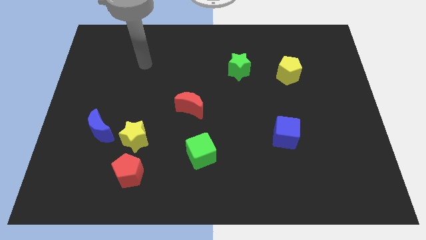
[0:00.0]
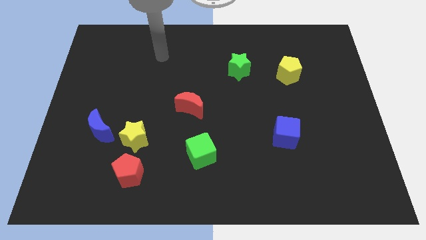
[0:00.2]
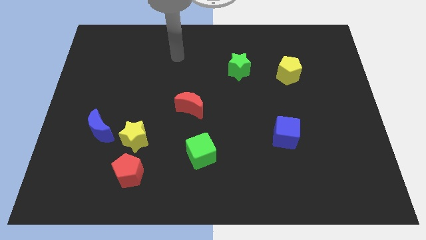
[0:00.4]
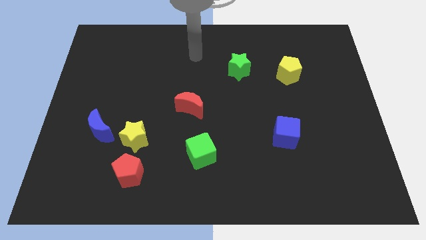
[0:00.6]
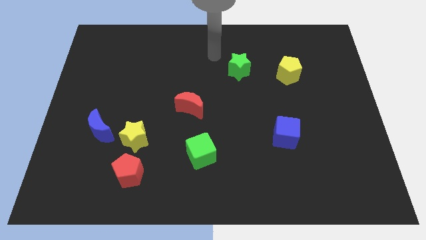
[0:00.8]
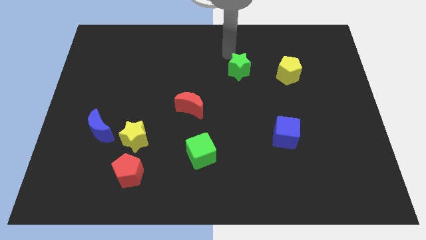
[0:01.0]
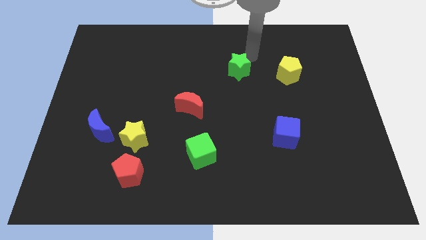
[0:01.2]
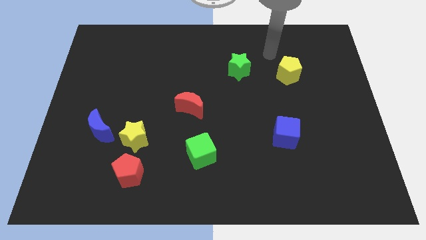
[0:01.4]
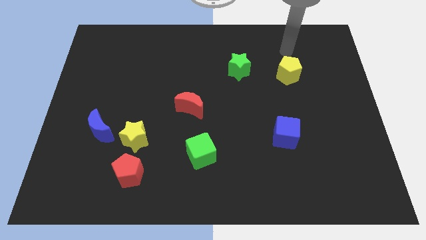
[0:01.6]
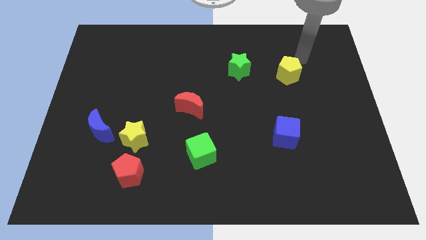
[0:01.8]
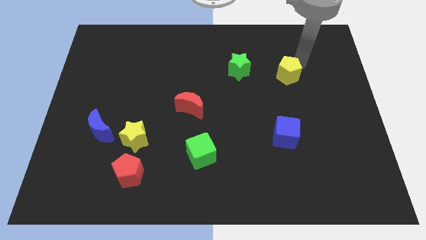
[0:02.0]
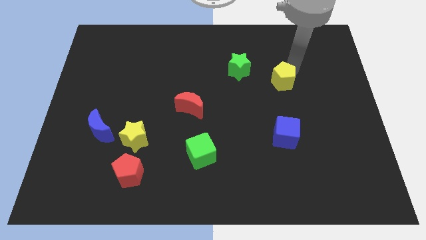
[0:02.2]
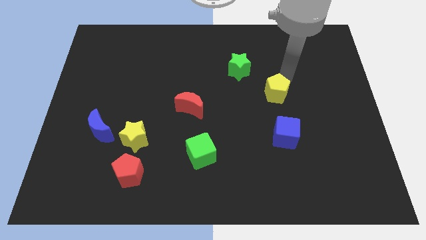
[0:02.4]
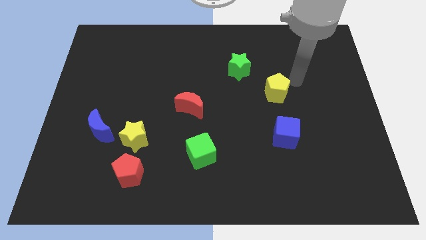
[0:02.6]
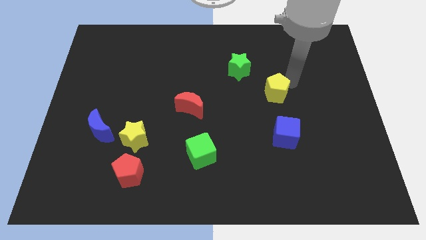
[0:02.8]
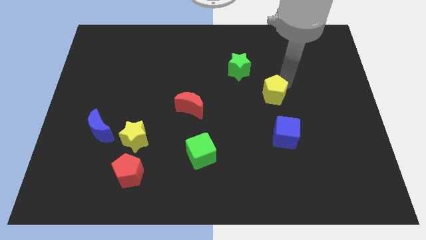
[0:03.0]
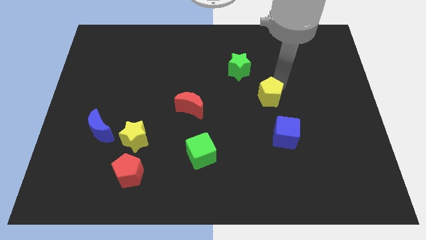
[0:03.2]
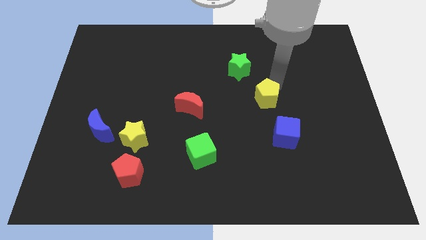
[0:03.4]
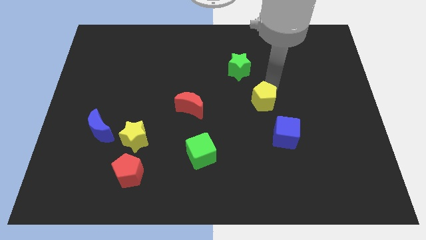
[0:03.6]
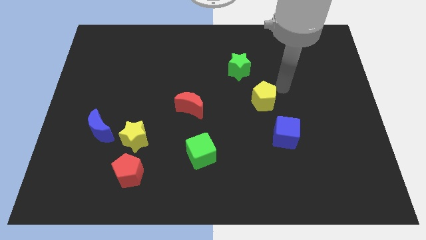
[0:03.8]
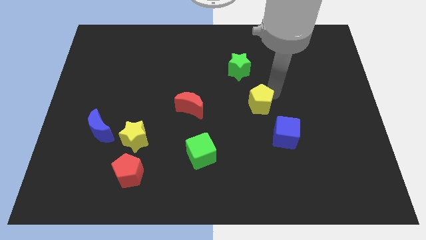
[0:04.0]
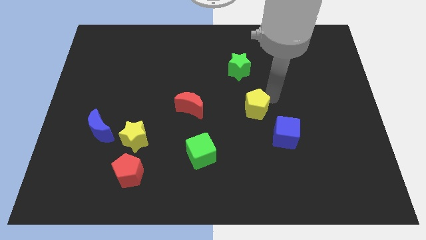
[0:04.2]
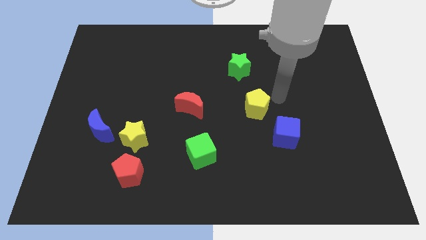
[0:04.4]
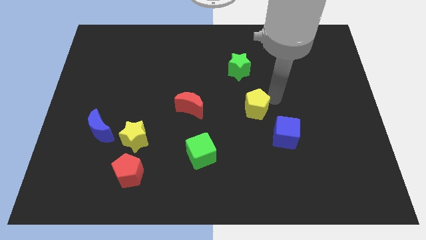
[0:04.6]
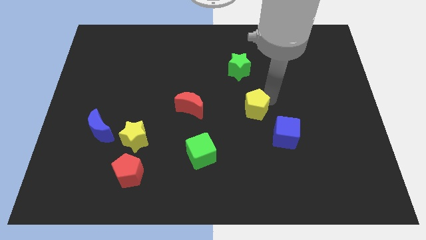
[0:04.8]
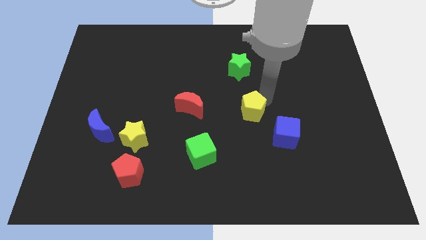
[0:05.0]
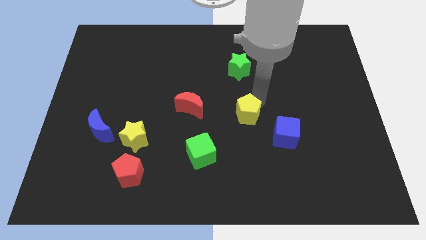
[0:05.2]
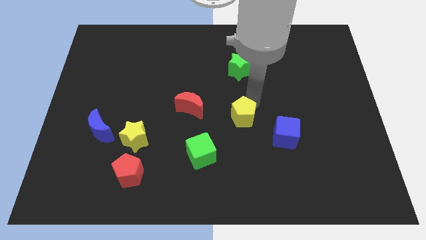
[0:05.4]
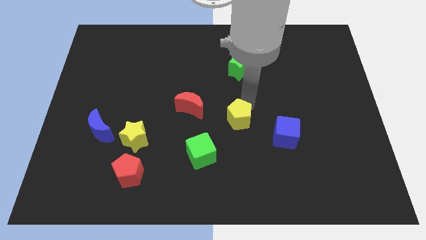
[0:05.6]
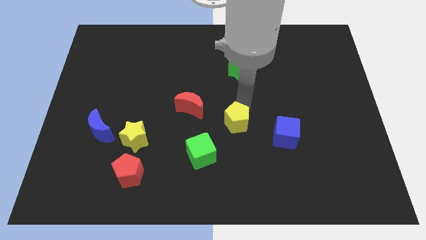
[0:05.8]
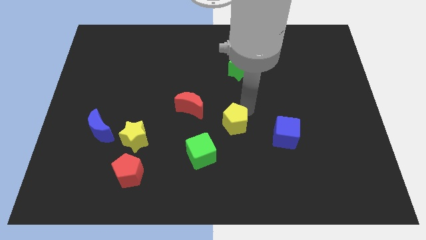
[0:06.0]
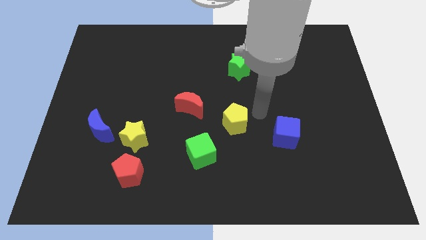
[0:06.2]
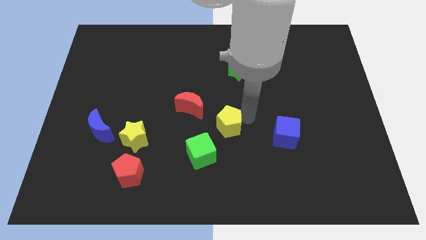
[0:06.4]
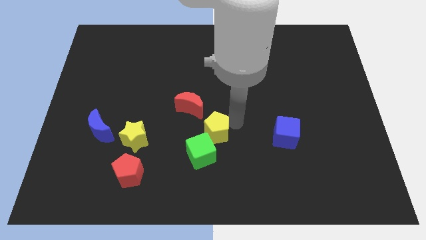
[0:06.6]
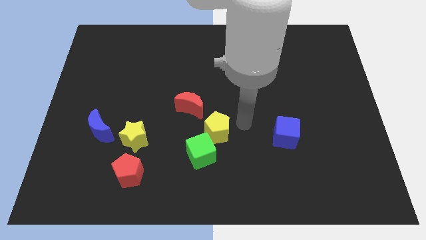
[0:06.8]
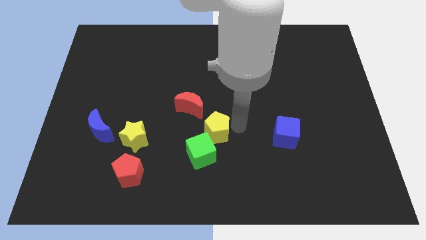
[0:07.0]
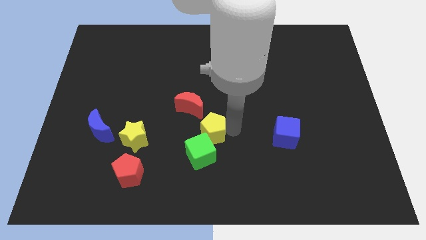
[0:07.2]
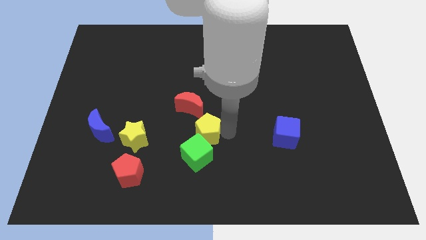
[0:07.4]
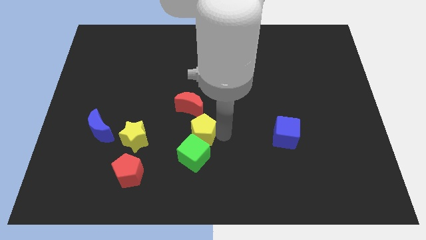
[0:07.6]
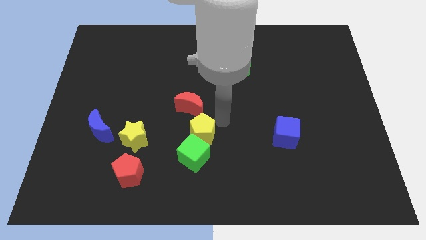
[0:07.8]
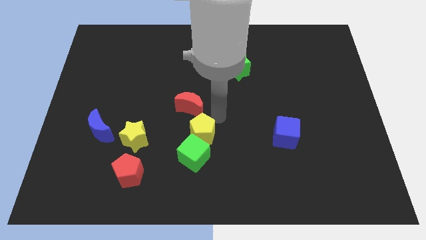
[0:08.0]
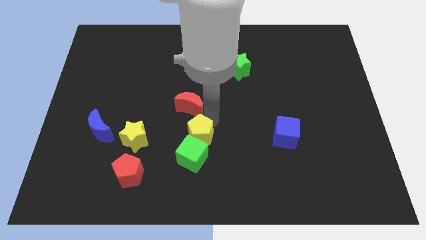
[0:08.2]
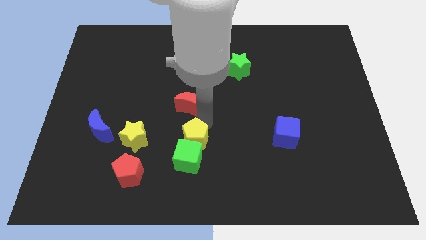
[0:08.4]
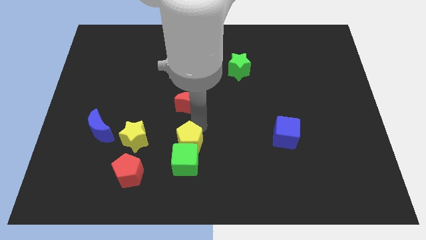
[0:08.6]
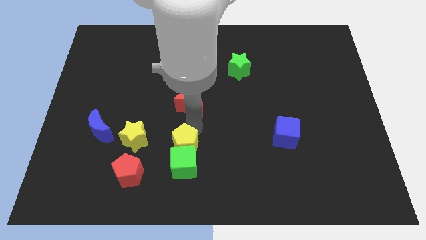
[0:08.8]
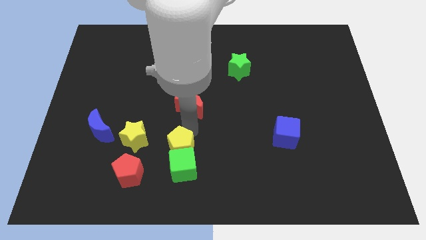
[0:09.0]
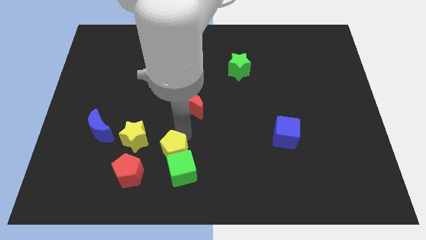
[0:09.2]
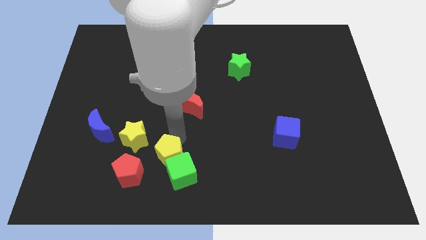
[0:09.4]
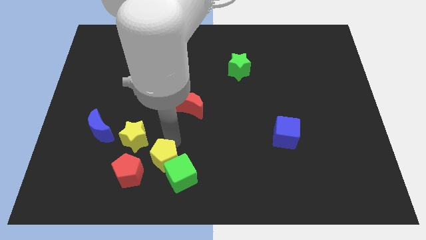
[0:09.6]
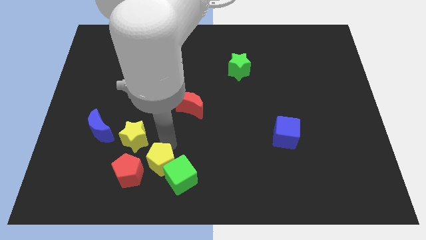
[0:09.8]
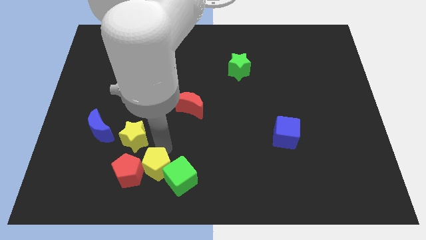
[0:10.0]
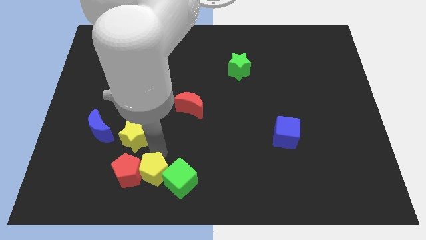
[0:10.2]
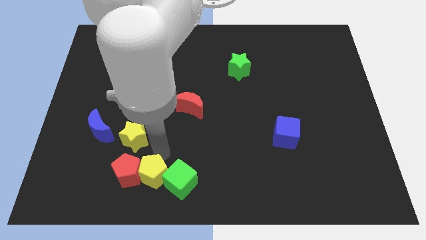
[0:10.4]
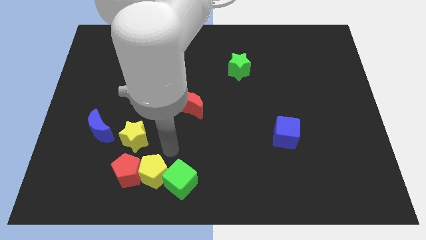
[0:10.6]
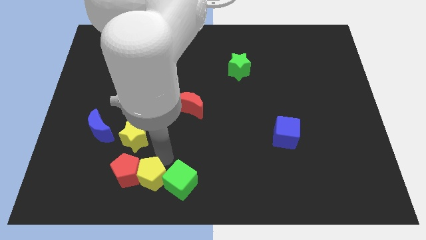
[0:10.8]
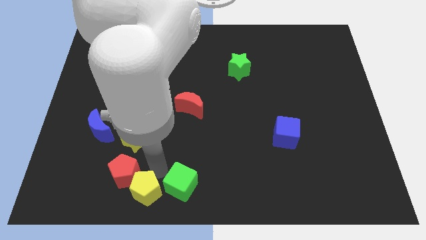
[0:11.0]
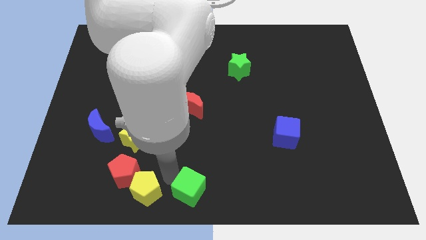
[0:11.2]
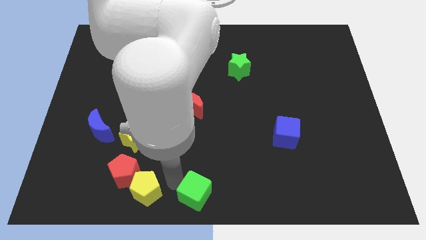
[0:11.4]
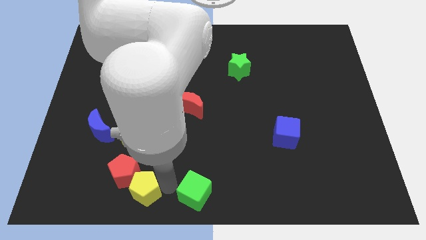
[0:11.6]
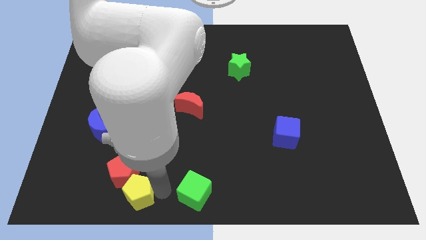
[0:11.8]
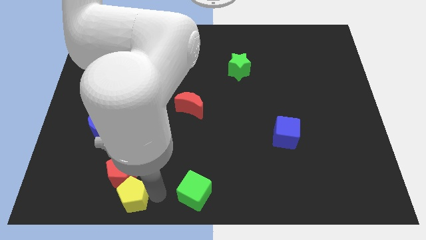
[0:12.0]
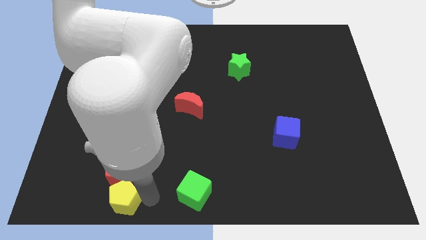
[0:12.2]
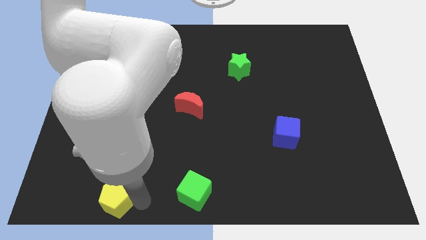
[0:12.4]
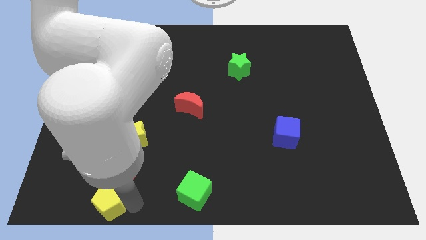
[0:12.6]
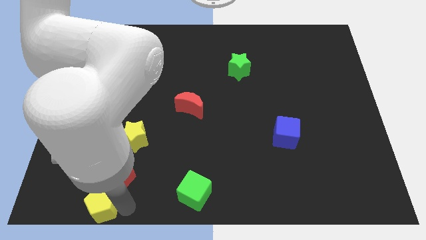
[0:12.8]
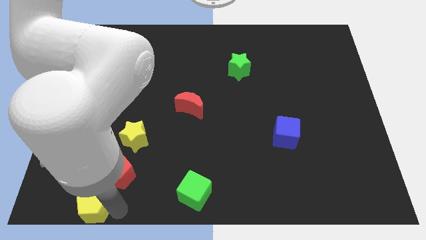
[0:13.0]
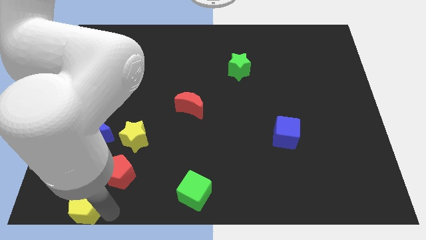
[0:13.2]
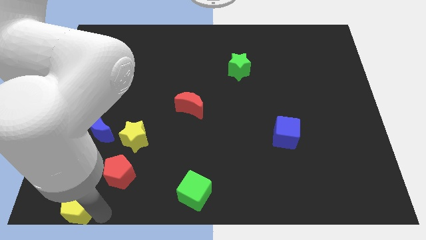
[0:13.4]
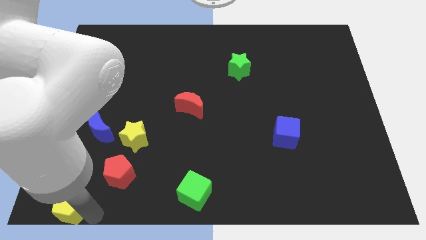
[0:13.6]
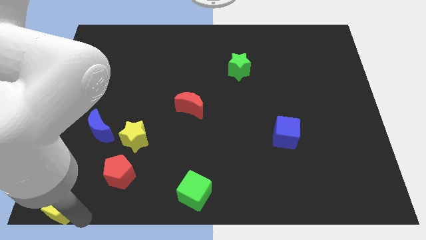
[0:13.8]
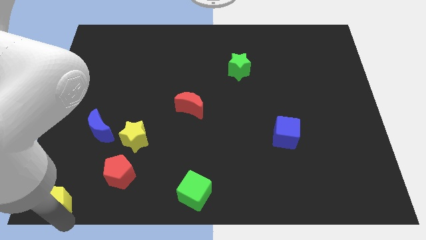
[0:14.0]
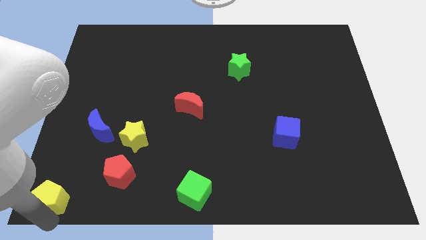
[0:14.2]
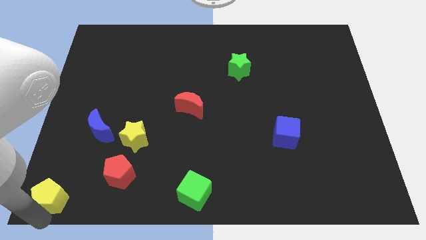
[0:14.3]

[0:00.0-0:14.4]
slide the yellow pentagon just left of the red pentagon

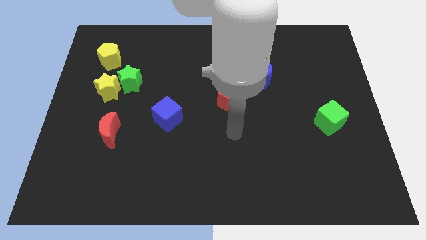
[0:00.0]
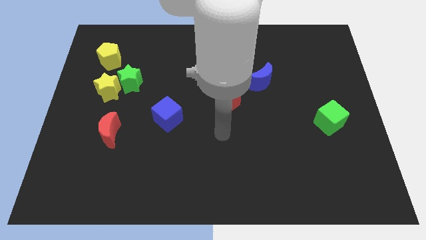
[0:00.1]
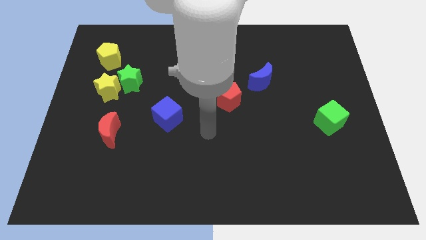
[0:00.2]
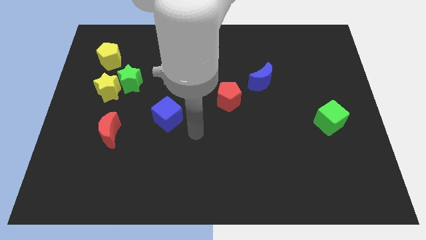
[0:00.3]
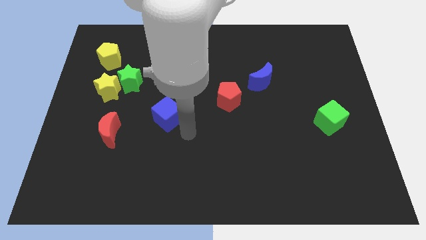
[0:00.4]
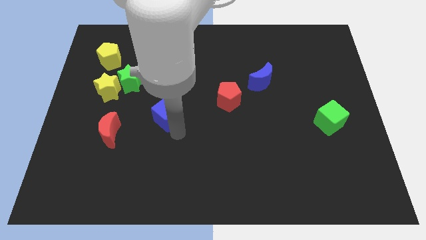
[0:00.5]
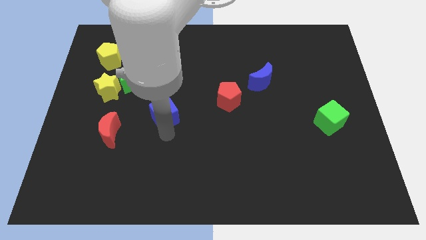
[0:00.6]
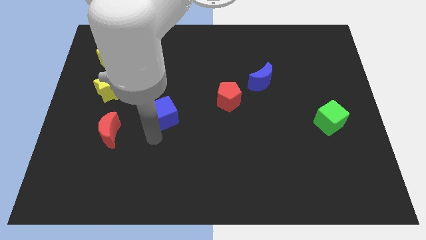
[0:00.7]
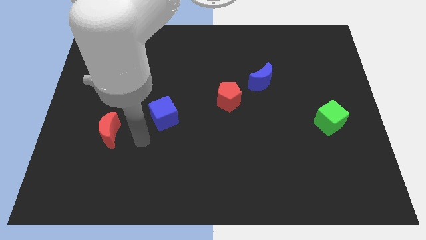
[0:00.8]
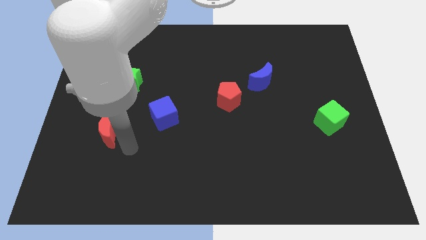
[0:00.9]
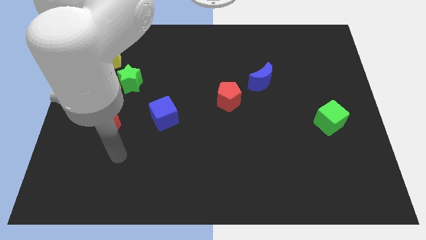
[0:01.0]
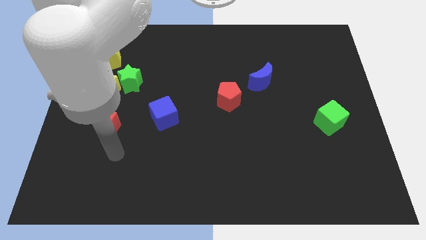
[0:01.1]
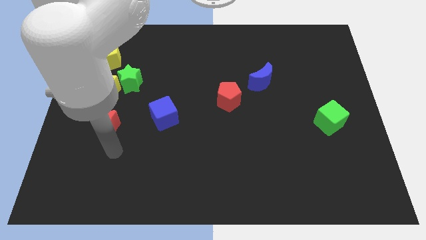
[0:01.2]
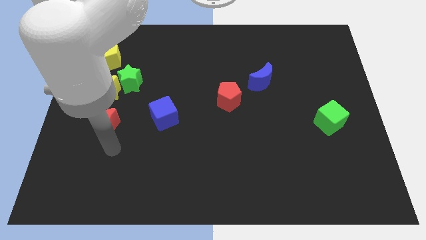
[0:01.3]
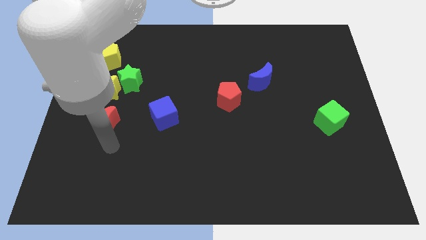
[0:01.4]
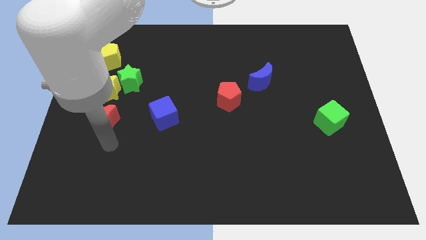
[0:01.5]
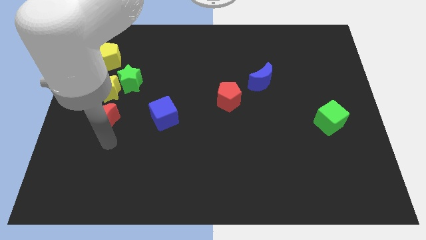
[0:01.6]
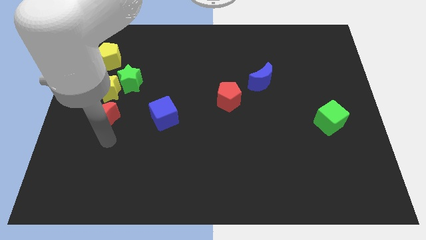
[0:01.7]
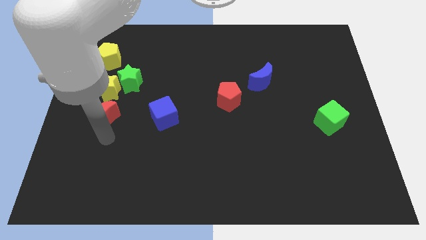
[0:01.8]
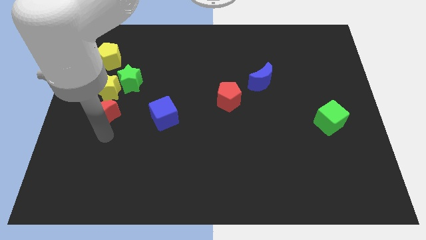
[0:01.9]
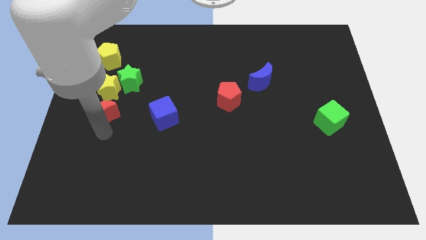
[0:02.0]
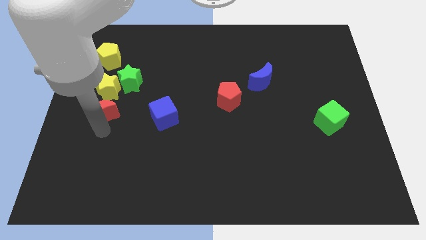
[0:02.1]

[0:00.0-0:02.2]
move the red moon diagonally down and to the left of the green star
